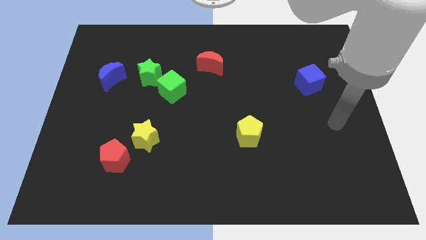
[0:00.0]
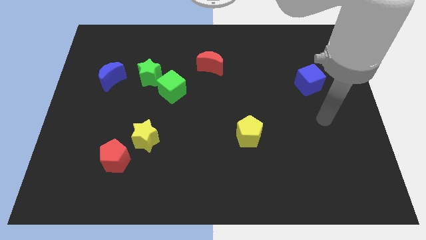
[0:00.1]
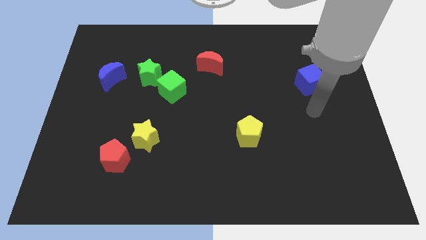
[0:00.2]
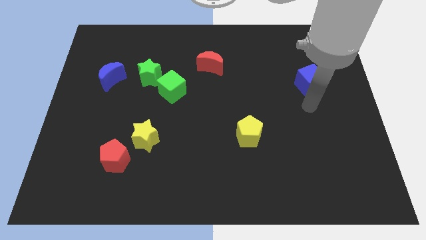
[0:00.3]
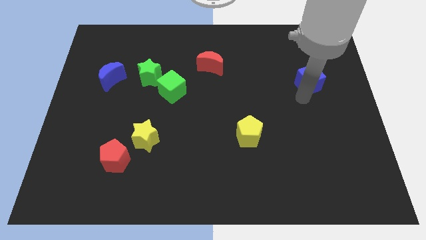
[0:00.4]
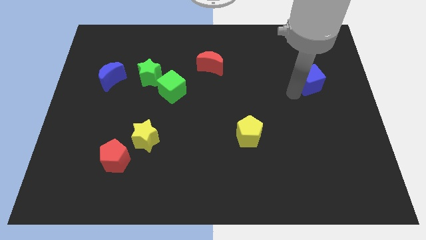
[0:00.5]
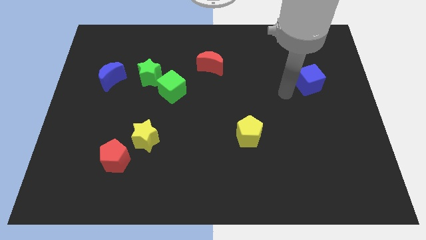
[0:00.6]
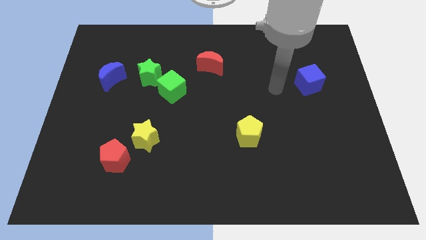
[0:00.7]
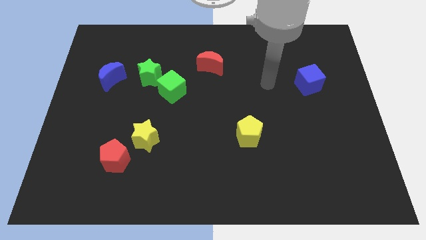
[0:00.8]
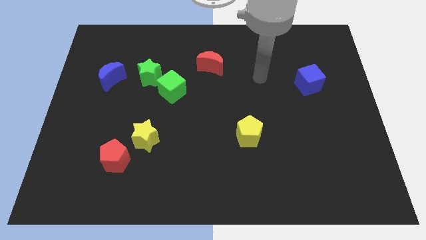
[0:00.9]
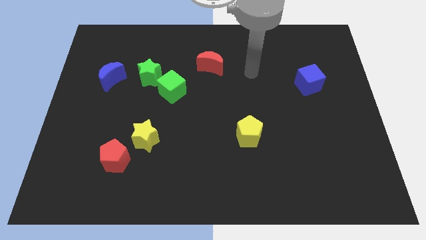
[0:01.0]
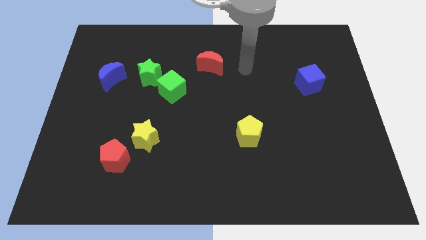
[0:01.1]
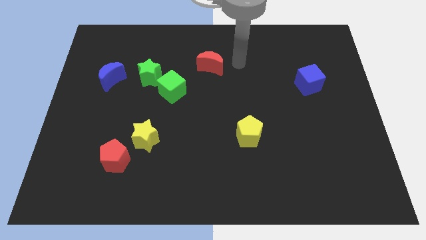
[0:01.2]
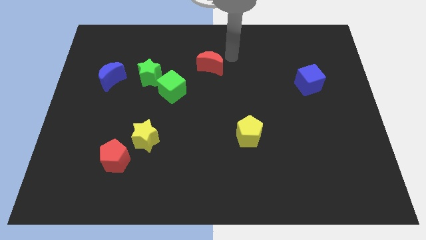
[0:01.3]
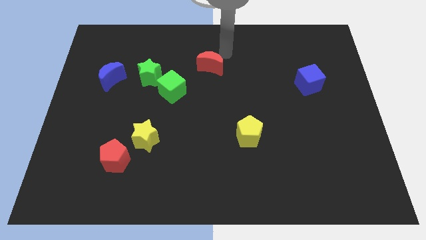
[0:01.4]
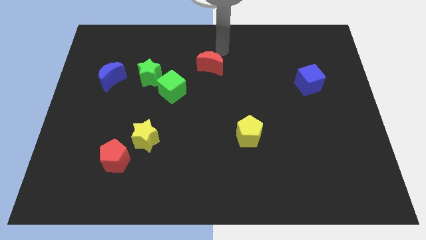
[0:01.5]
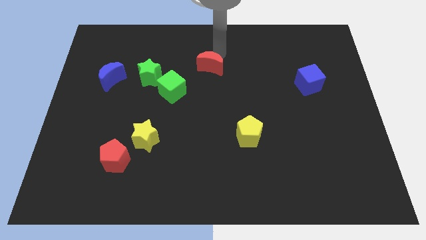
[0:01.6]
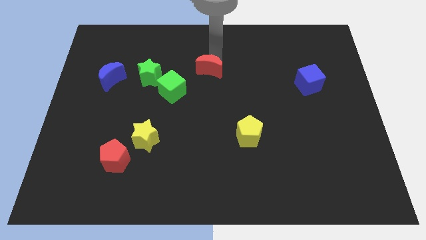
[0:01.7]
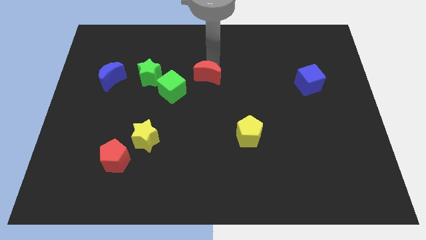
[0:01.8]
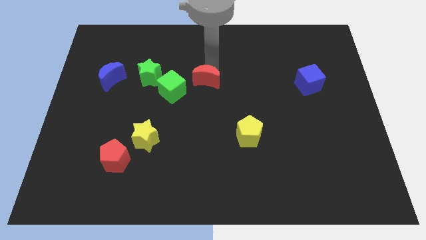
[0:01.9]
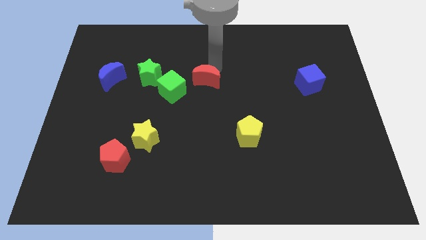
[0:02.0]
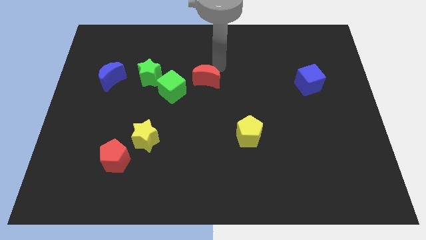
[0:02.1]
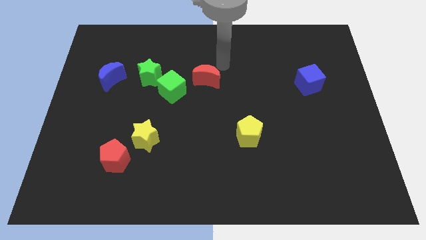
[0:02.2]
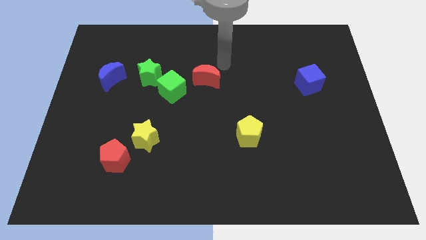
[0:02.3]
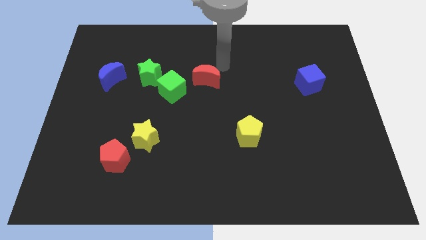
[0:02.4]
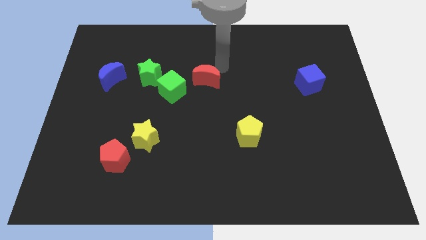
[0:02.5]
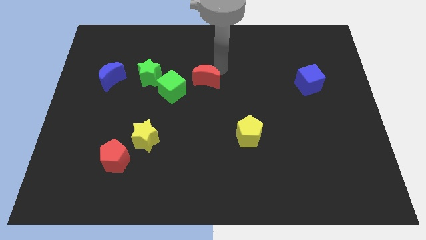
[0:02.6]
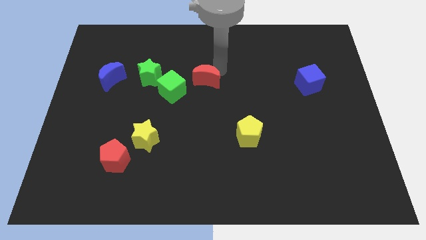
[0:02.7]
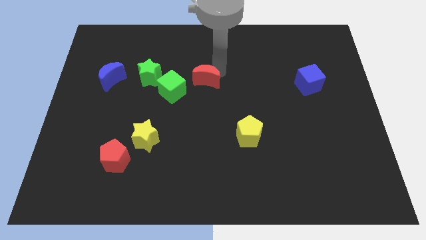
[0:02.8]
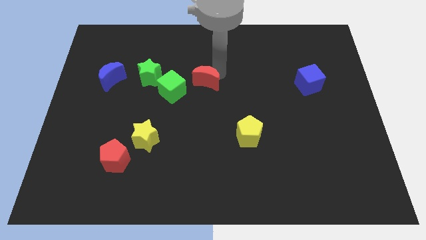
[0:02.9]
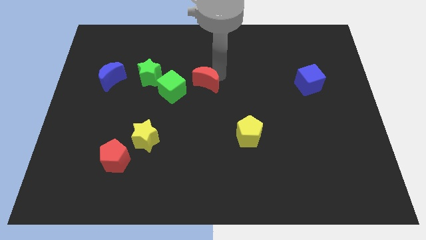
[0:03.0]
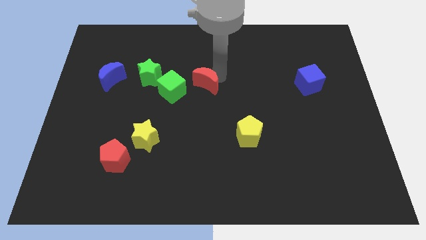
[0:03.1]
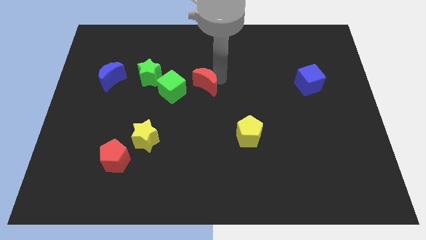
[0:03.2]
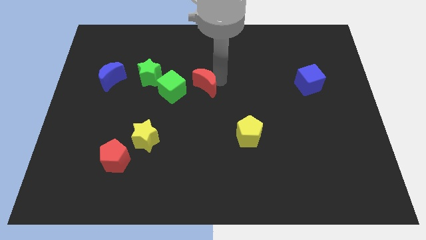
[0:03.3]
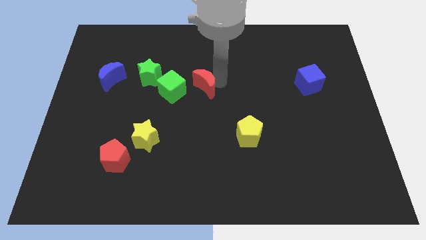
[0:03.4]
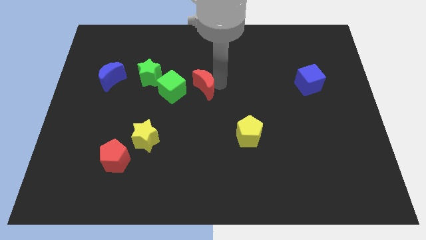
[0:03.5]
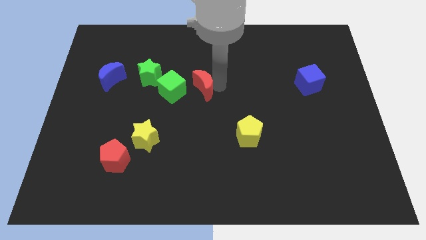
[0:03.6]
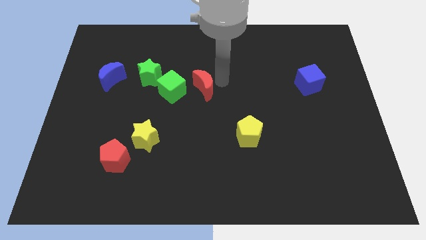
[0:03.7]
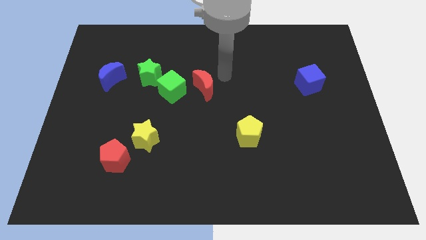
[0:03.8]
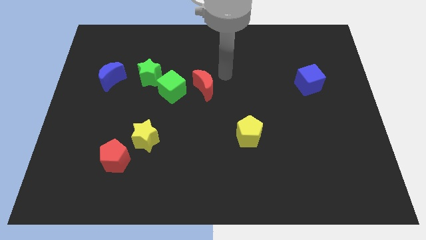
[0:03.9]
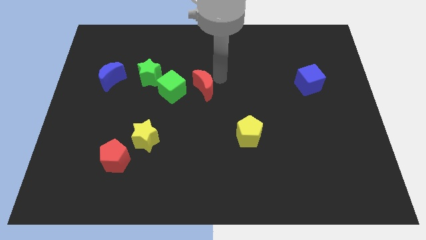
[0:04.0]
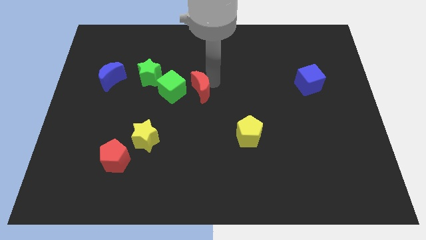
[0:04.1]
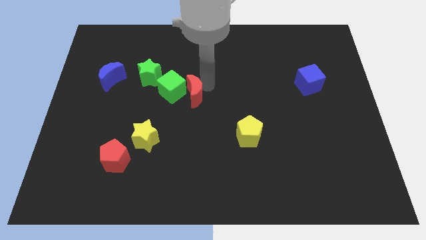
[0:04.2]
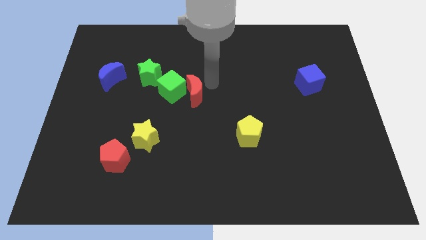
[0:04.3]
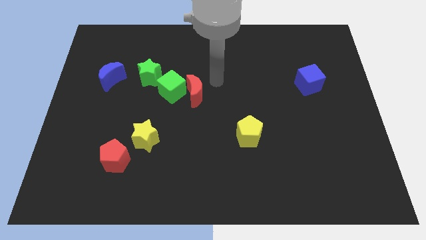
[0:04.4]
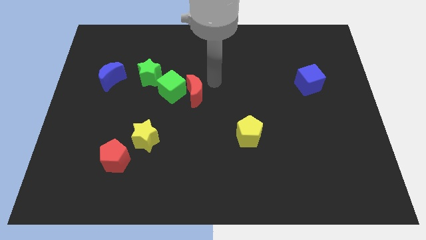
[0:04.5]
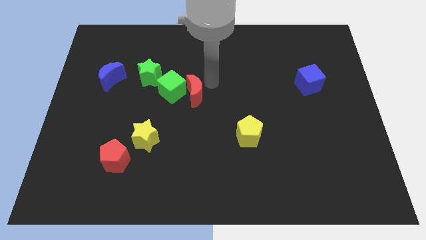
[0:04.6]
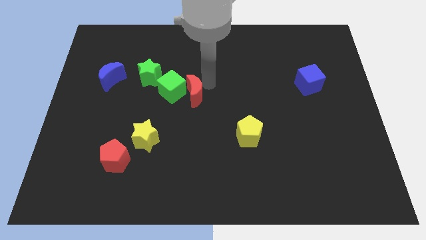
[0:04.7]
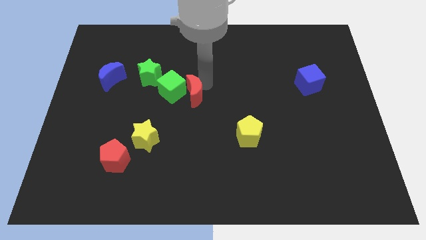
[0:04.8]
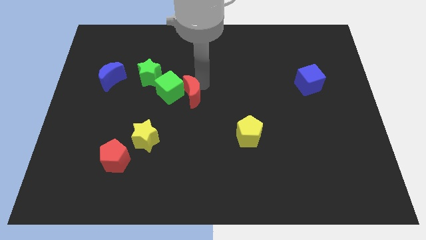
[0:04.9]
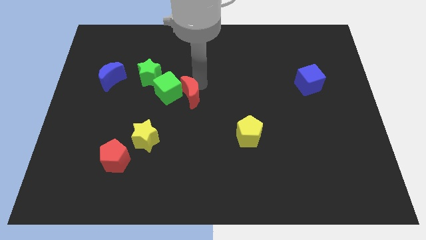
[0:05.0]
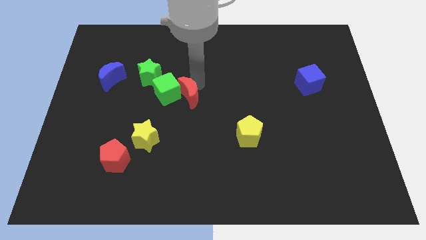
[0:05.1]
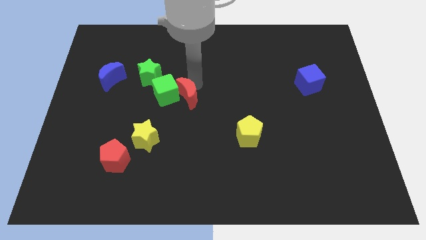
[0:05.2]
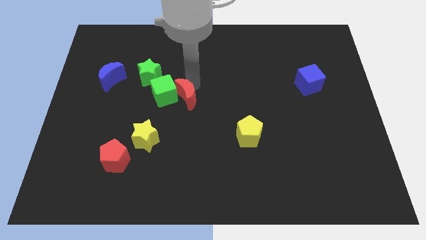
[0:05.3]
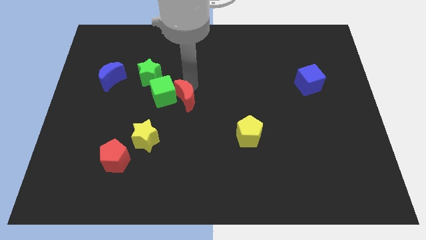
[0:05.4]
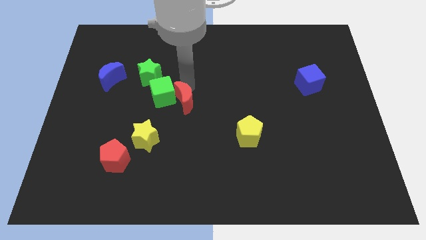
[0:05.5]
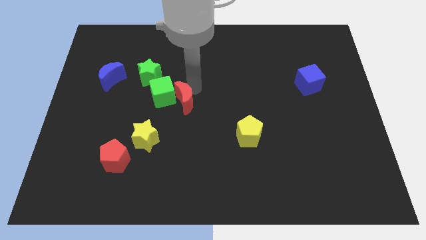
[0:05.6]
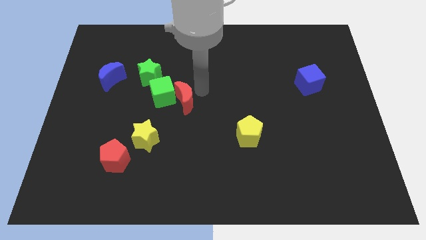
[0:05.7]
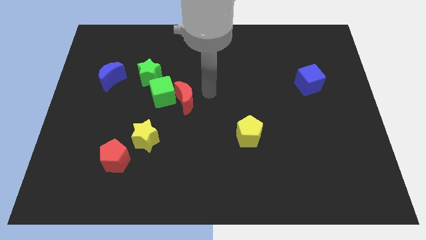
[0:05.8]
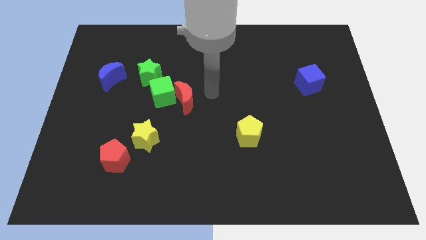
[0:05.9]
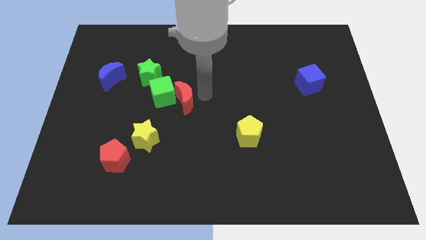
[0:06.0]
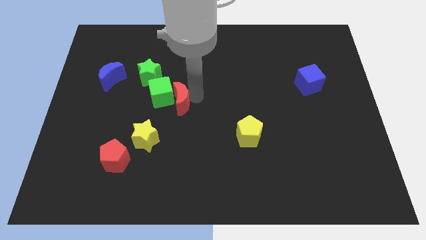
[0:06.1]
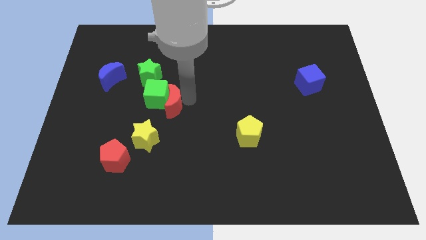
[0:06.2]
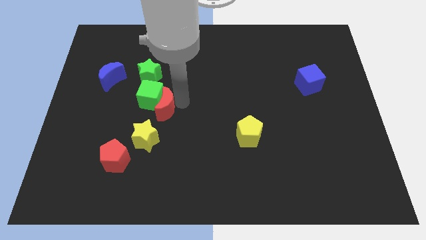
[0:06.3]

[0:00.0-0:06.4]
slide the red moon to the bottom of the green star

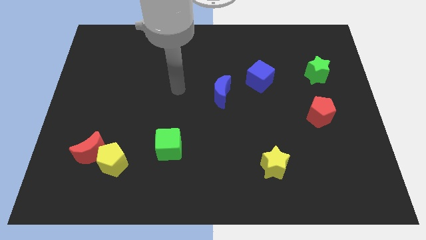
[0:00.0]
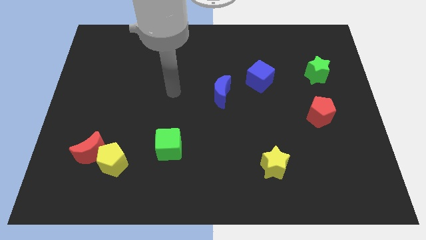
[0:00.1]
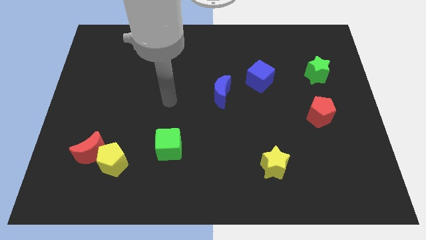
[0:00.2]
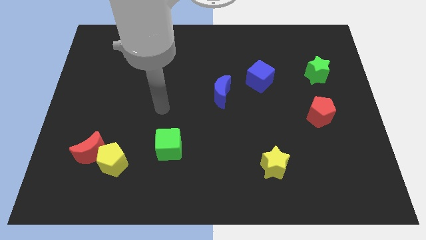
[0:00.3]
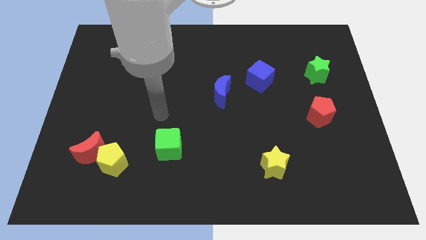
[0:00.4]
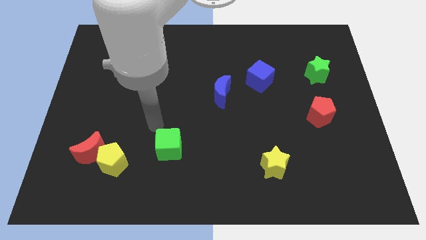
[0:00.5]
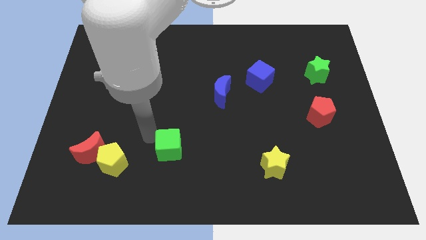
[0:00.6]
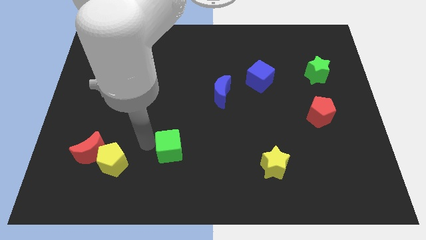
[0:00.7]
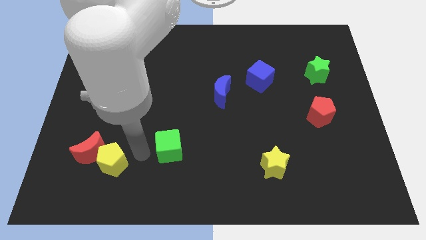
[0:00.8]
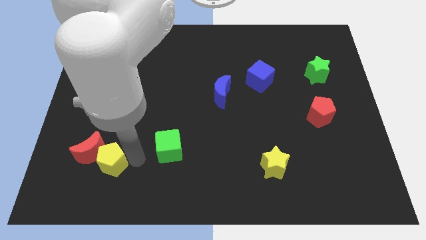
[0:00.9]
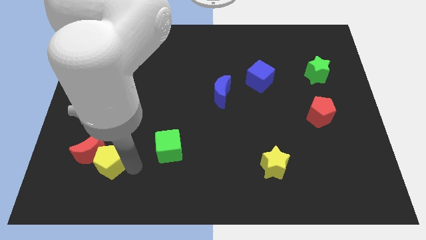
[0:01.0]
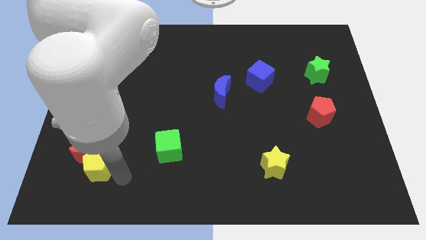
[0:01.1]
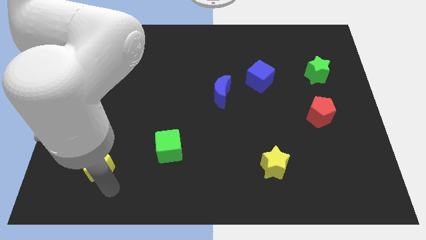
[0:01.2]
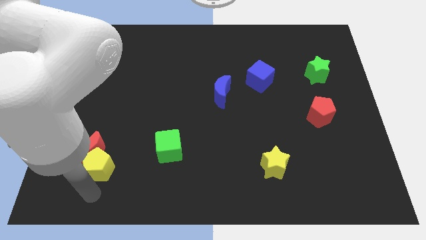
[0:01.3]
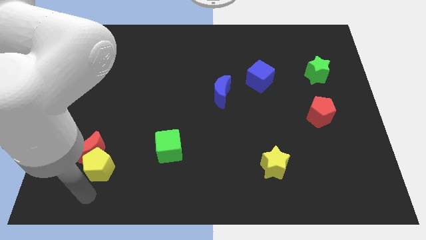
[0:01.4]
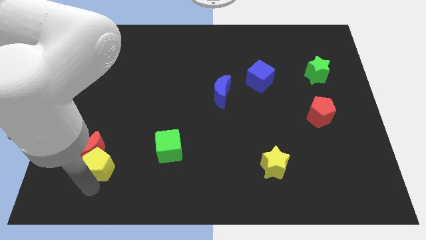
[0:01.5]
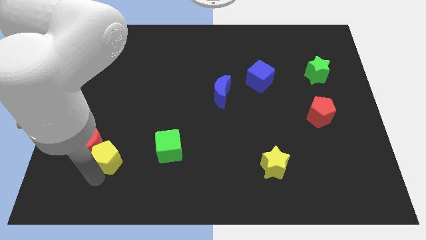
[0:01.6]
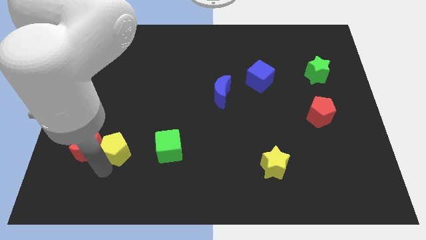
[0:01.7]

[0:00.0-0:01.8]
move the yellow pentagon diagonally up and to the right of the red moon
